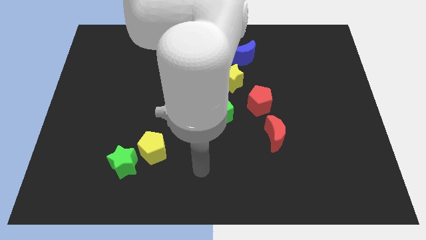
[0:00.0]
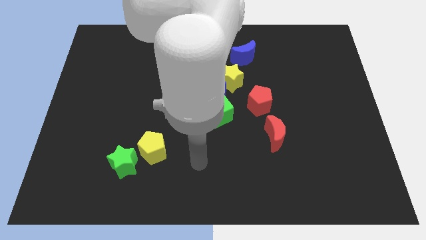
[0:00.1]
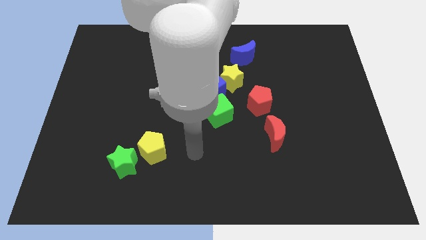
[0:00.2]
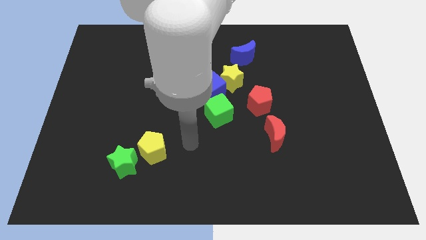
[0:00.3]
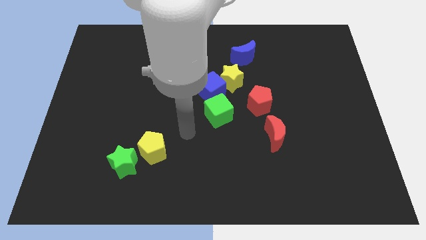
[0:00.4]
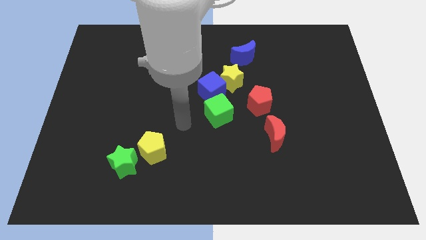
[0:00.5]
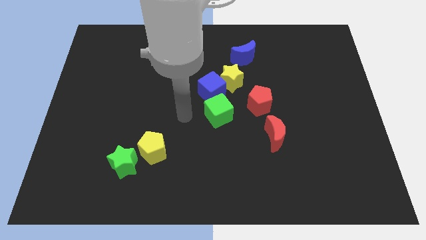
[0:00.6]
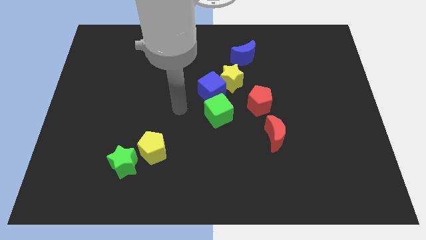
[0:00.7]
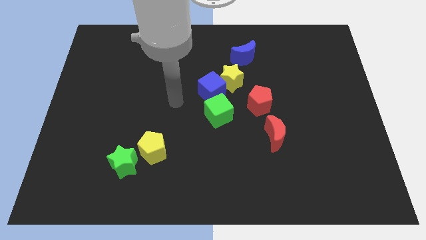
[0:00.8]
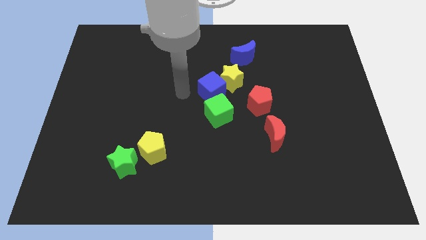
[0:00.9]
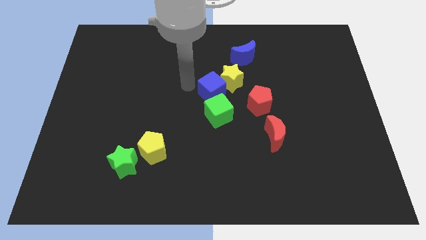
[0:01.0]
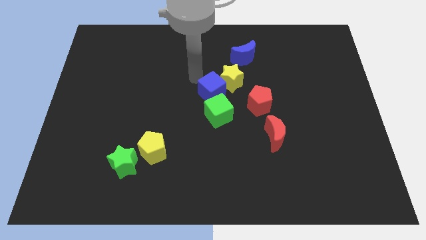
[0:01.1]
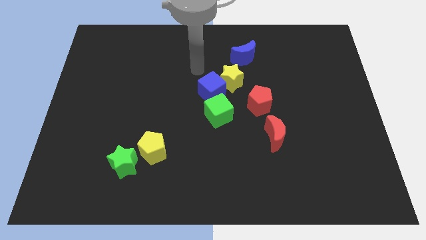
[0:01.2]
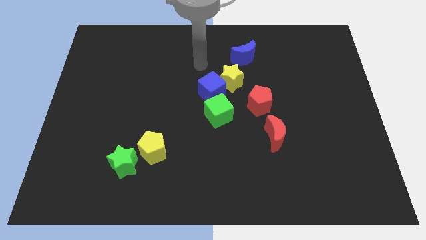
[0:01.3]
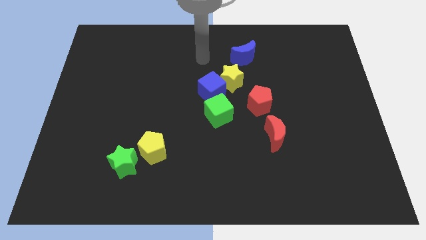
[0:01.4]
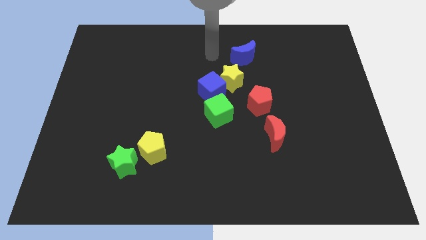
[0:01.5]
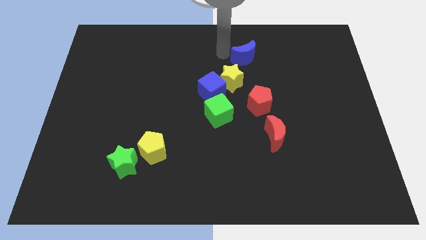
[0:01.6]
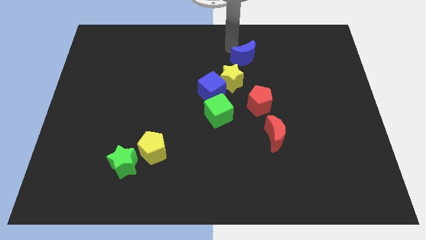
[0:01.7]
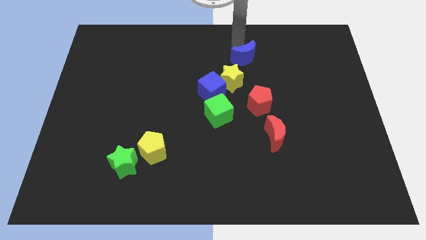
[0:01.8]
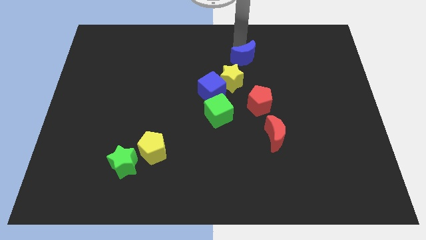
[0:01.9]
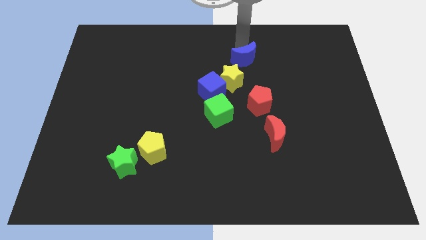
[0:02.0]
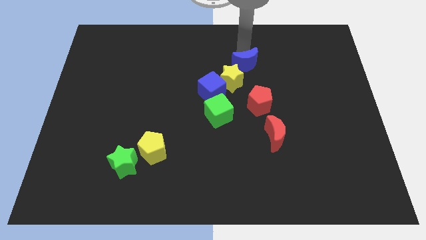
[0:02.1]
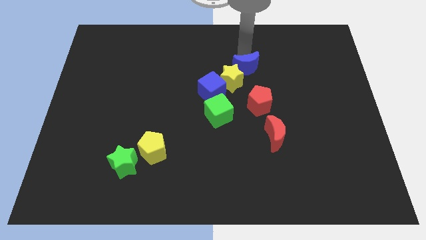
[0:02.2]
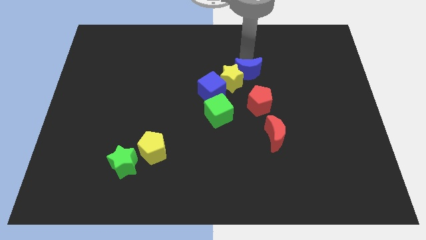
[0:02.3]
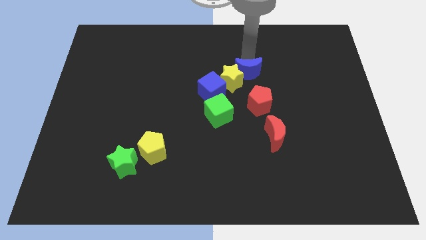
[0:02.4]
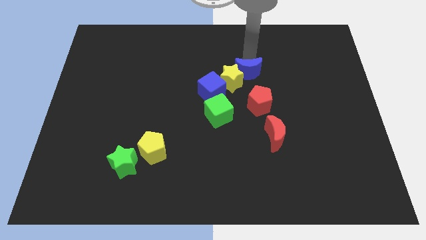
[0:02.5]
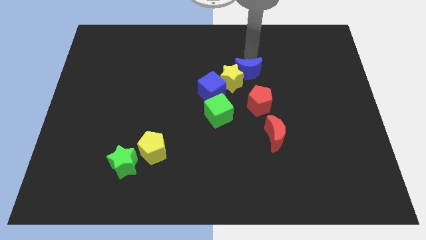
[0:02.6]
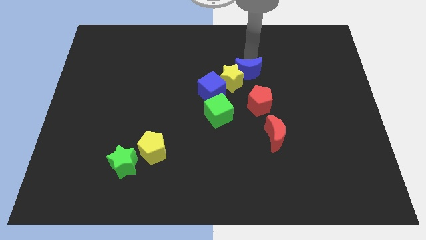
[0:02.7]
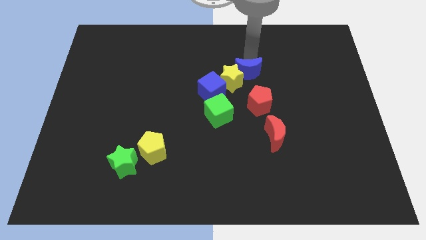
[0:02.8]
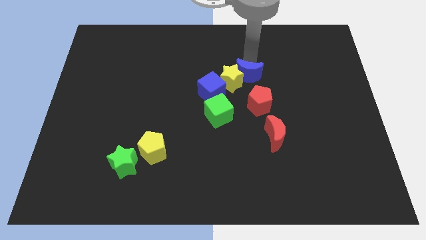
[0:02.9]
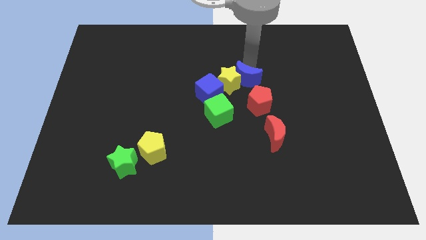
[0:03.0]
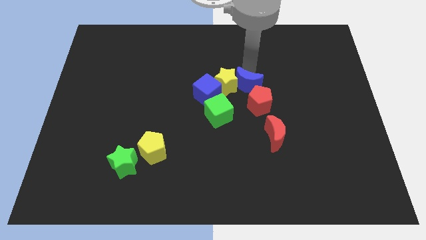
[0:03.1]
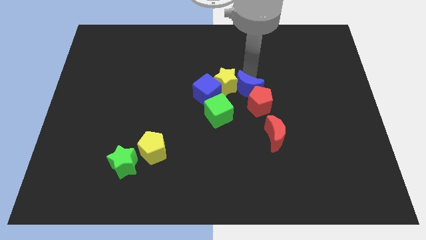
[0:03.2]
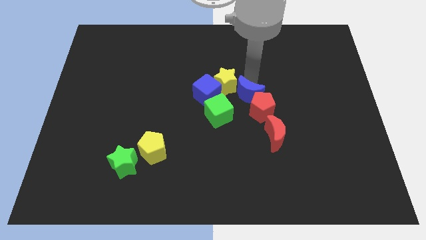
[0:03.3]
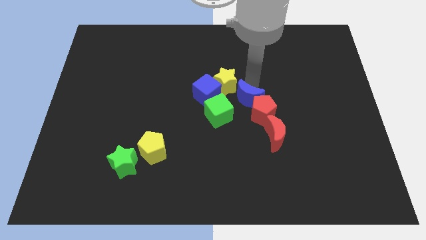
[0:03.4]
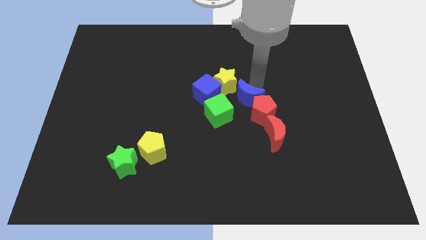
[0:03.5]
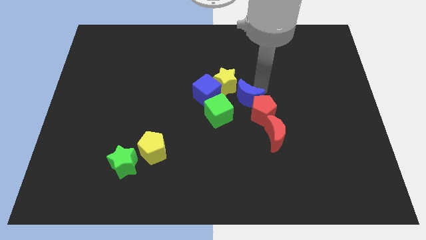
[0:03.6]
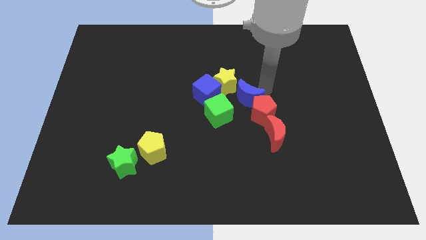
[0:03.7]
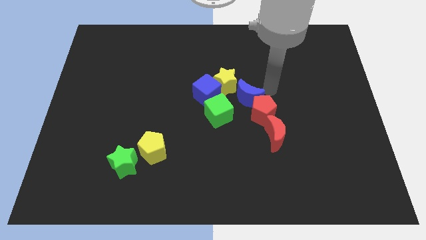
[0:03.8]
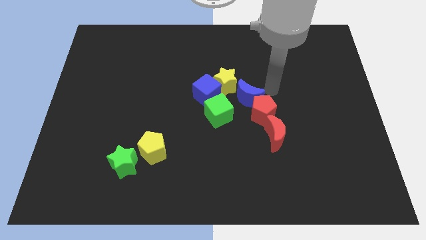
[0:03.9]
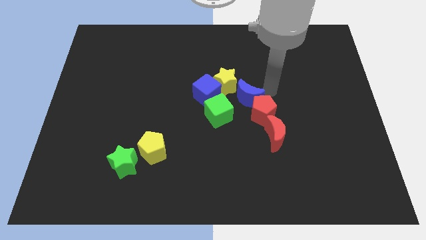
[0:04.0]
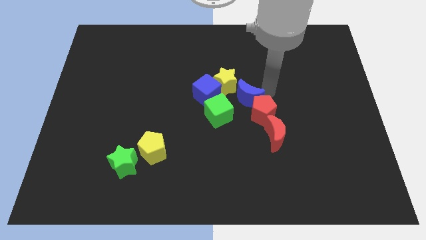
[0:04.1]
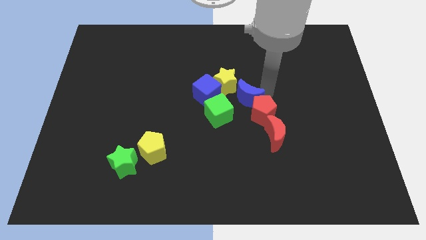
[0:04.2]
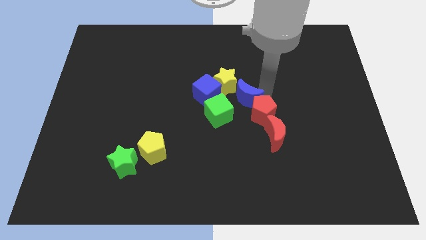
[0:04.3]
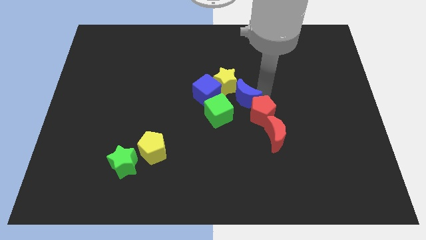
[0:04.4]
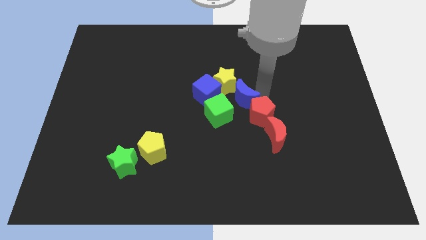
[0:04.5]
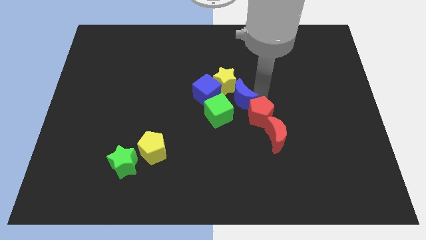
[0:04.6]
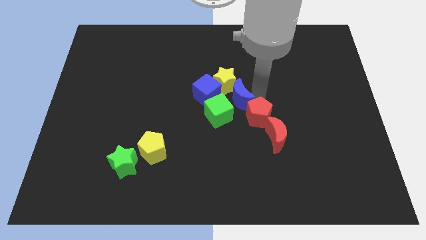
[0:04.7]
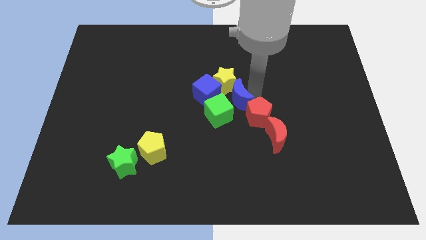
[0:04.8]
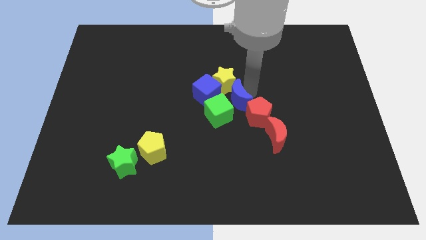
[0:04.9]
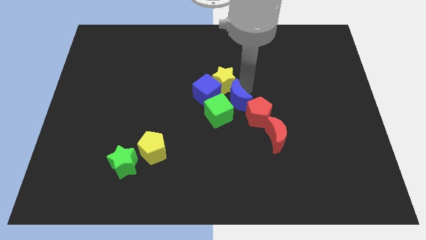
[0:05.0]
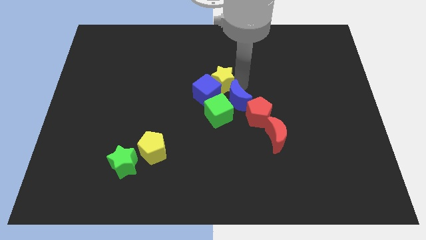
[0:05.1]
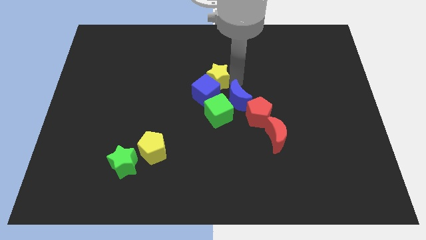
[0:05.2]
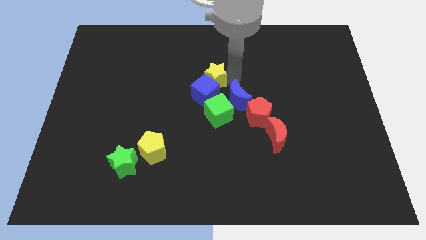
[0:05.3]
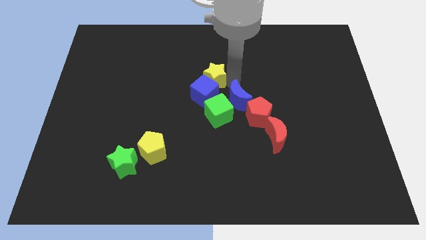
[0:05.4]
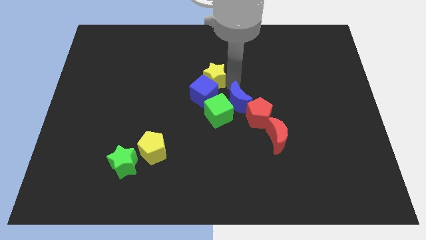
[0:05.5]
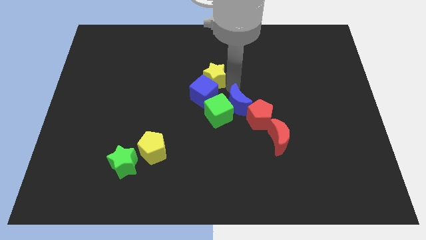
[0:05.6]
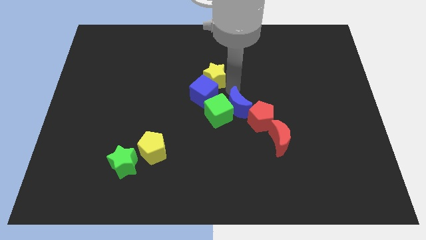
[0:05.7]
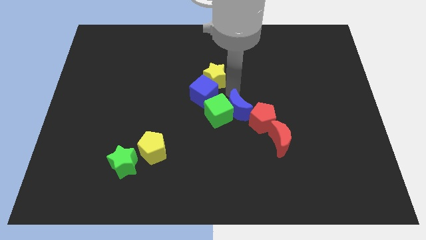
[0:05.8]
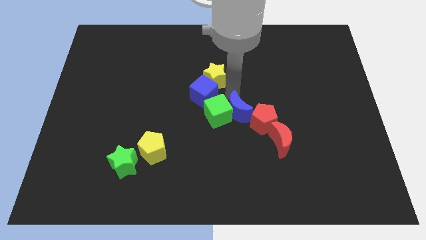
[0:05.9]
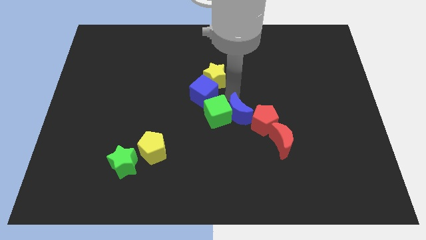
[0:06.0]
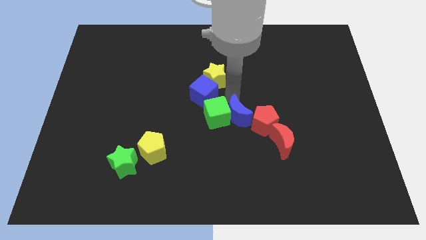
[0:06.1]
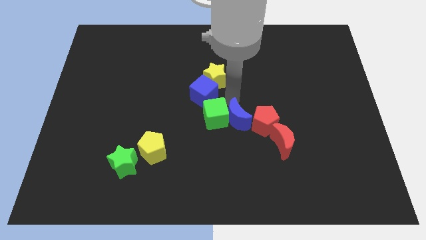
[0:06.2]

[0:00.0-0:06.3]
move the blue moon downwards

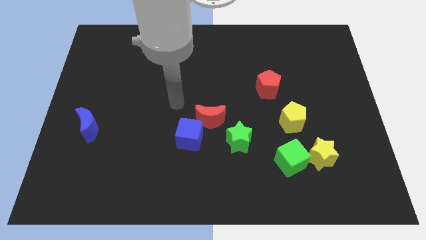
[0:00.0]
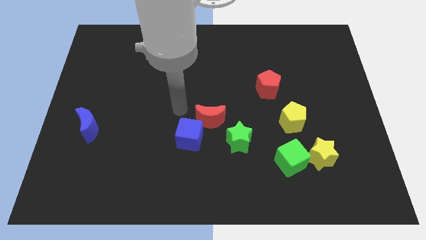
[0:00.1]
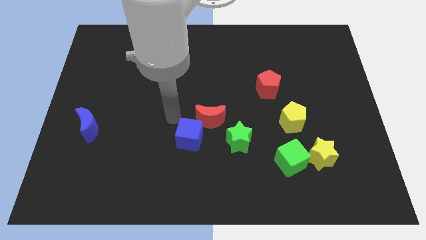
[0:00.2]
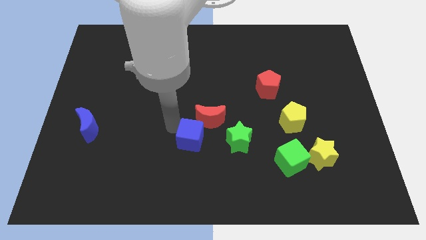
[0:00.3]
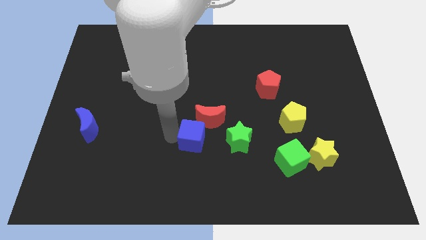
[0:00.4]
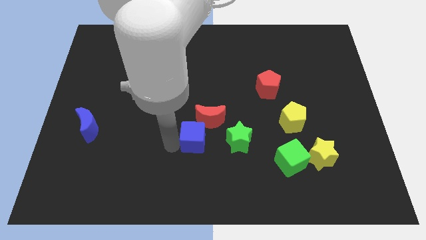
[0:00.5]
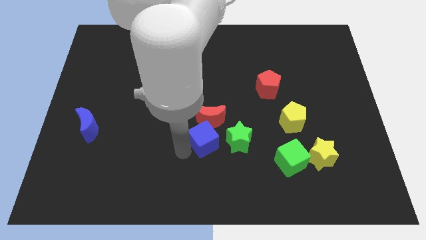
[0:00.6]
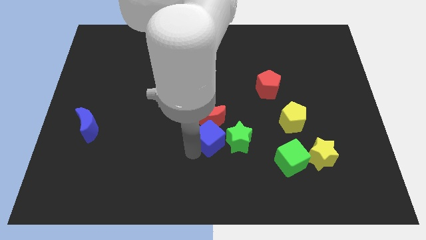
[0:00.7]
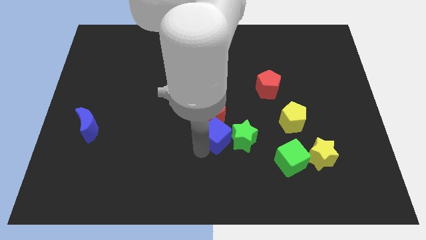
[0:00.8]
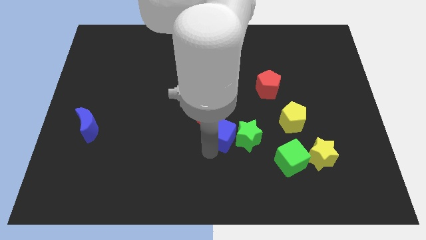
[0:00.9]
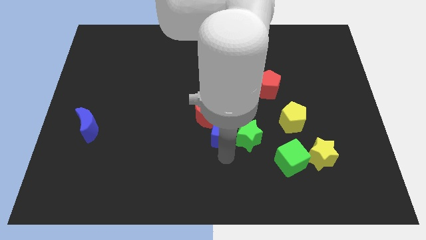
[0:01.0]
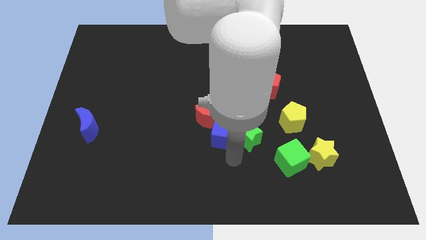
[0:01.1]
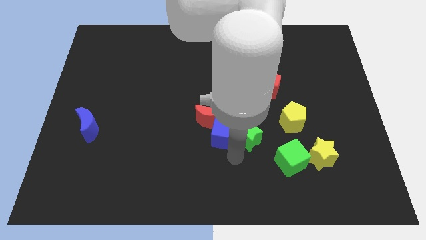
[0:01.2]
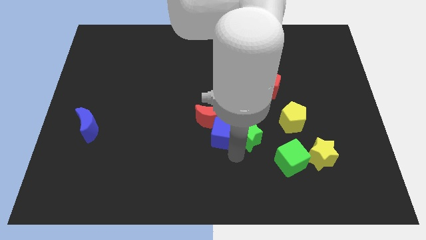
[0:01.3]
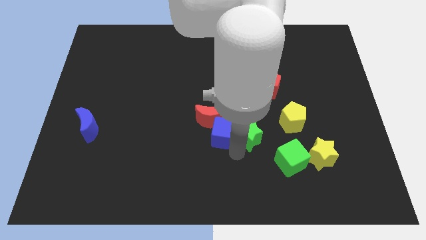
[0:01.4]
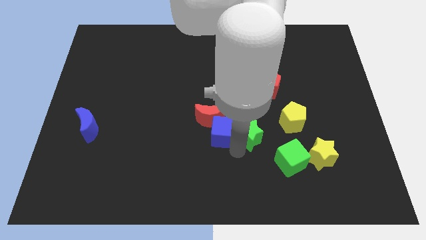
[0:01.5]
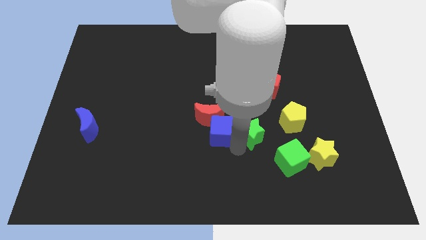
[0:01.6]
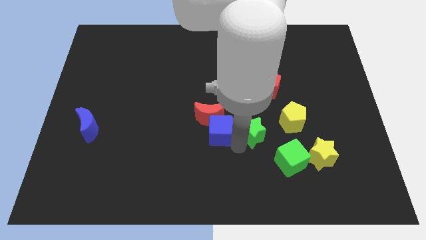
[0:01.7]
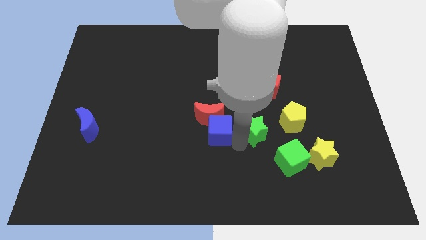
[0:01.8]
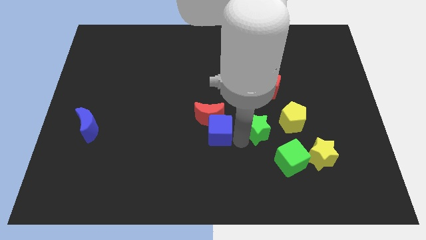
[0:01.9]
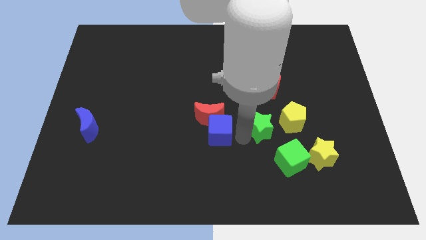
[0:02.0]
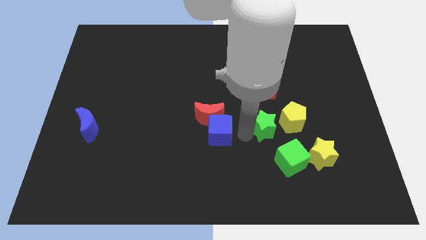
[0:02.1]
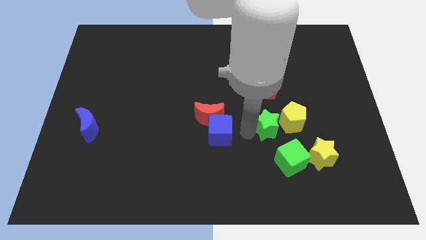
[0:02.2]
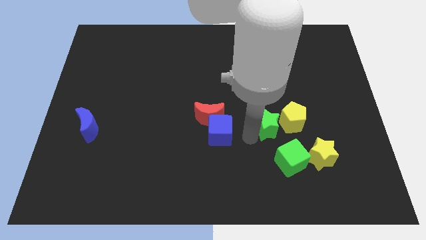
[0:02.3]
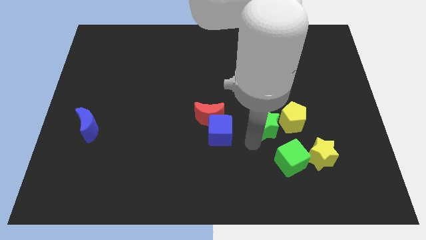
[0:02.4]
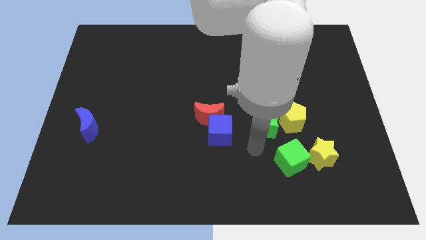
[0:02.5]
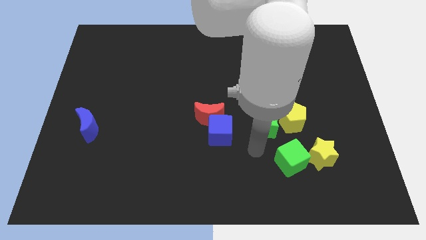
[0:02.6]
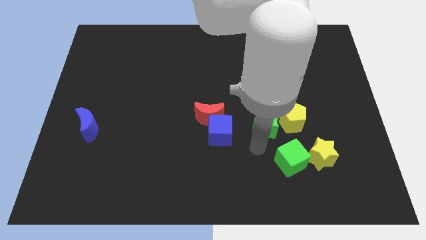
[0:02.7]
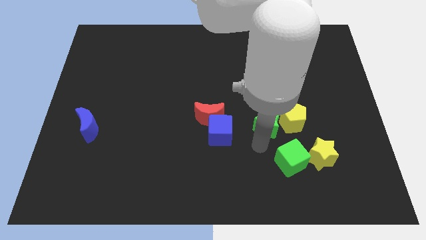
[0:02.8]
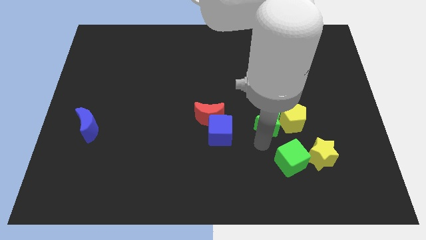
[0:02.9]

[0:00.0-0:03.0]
move the green star a little bit upwards and to the right diagonally
